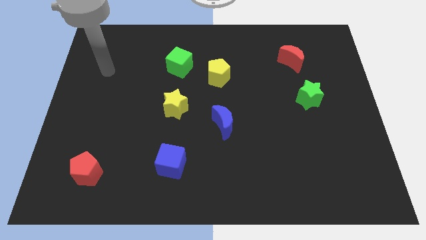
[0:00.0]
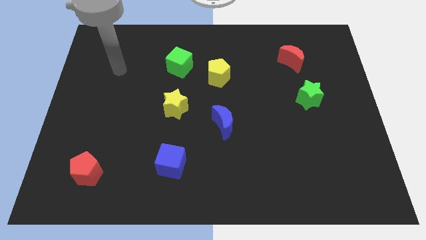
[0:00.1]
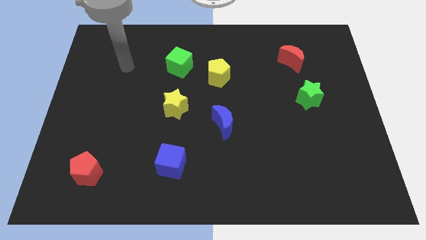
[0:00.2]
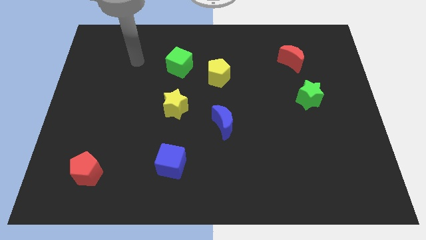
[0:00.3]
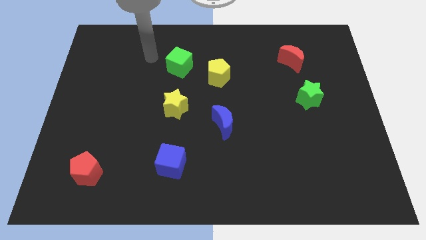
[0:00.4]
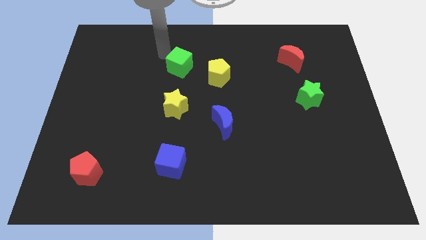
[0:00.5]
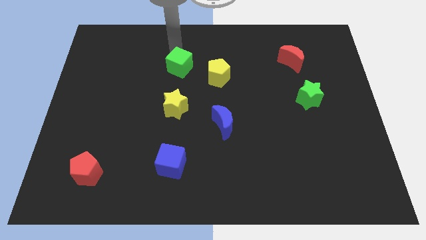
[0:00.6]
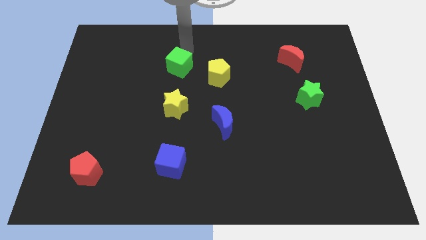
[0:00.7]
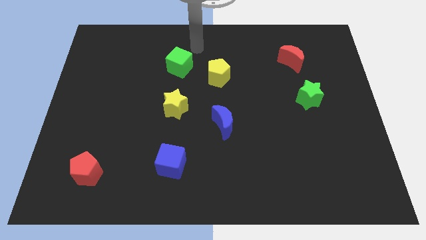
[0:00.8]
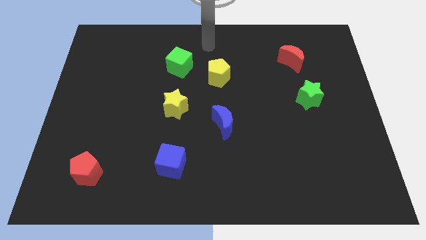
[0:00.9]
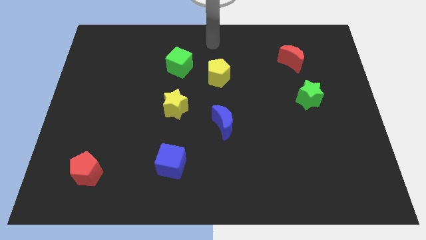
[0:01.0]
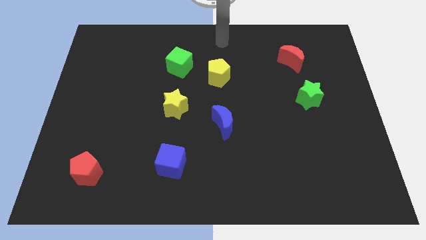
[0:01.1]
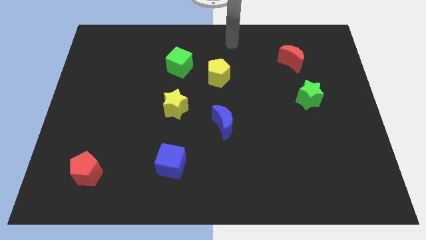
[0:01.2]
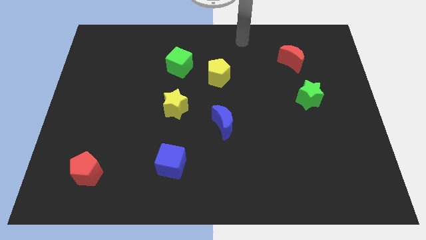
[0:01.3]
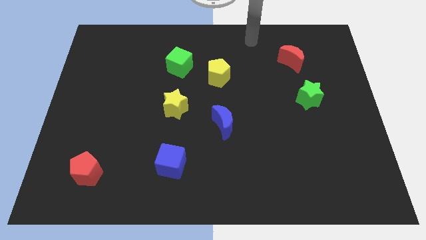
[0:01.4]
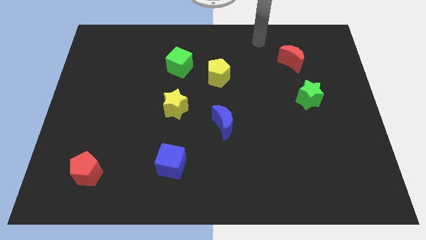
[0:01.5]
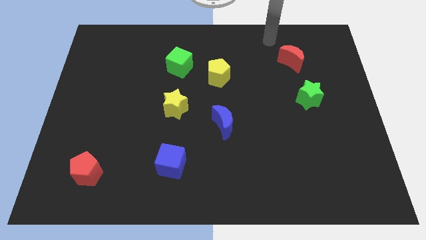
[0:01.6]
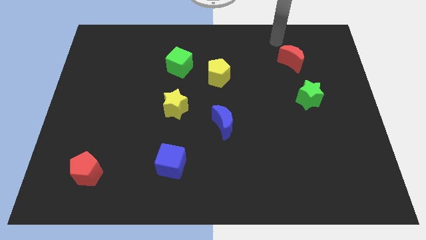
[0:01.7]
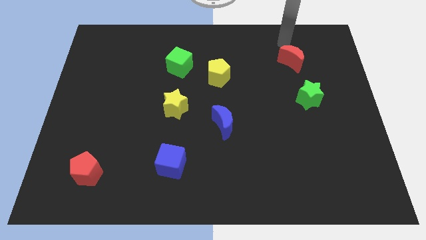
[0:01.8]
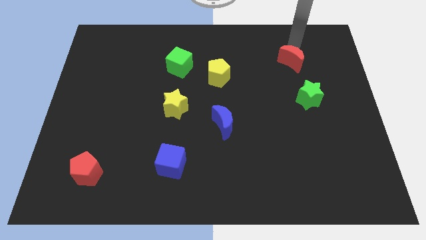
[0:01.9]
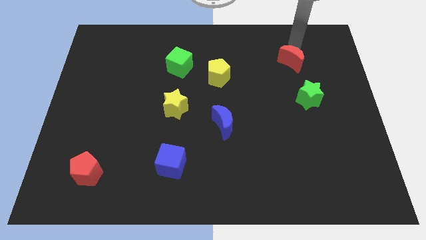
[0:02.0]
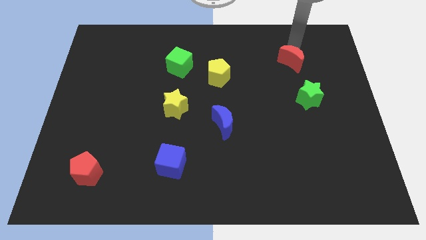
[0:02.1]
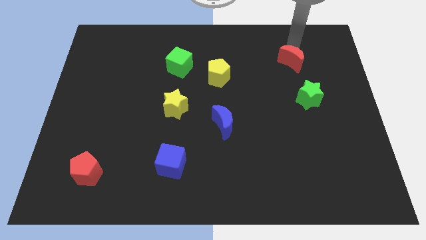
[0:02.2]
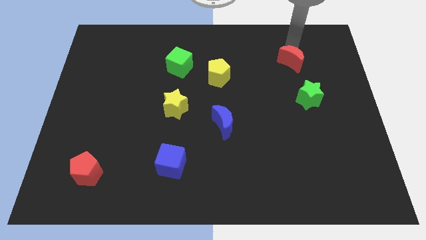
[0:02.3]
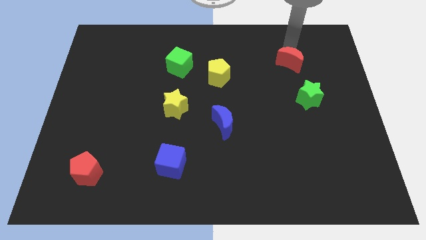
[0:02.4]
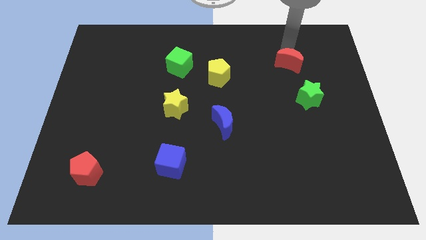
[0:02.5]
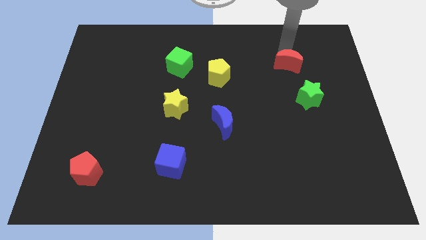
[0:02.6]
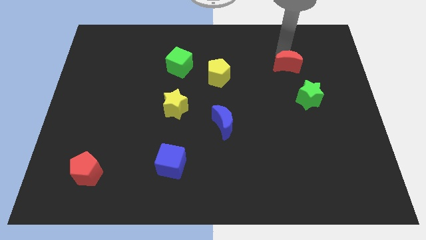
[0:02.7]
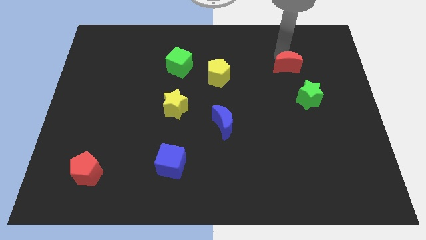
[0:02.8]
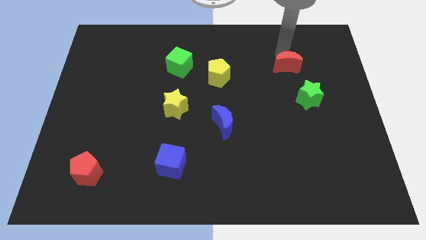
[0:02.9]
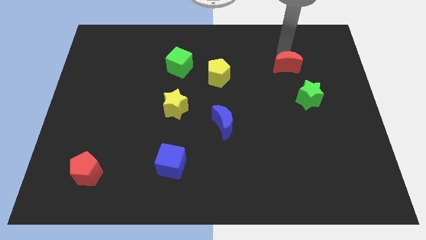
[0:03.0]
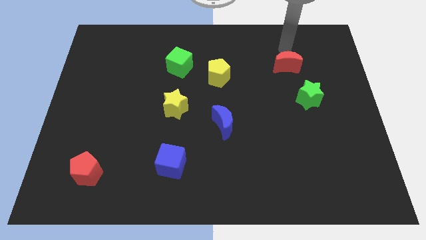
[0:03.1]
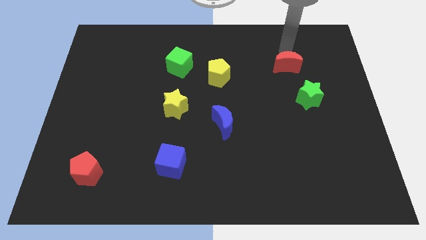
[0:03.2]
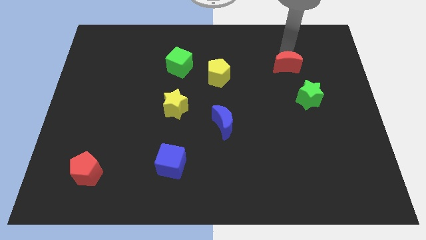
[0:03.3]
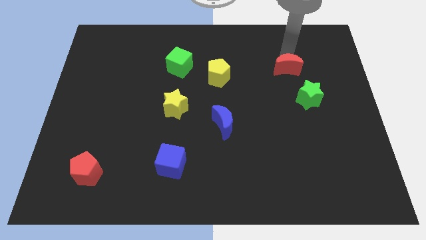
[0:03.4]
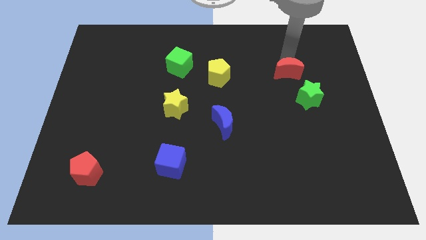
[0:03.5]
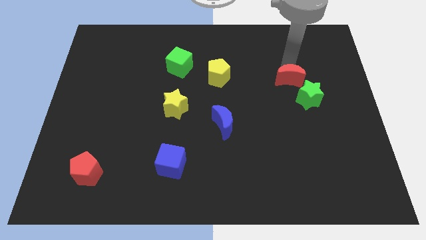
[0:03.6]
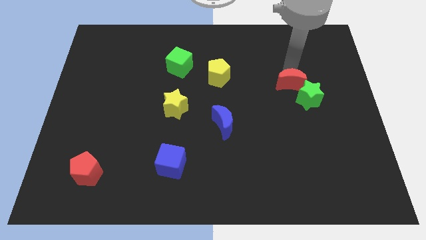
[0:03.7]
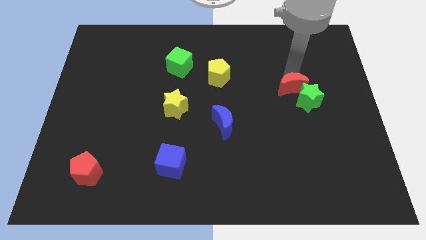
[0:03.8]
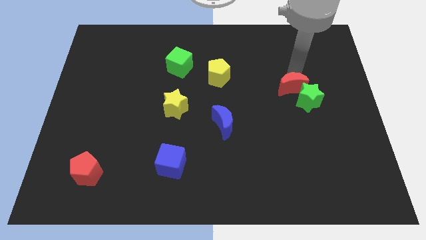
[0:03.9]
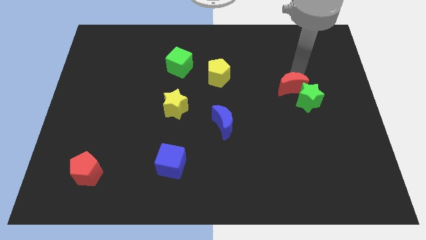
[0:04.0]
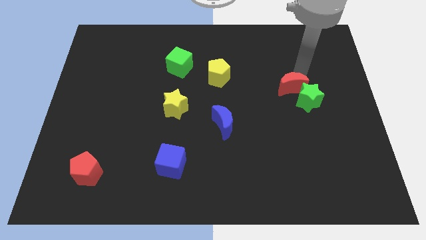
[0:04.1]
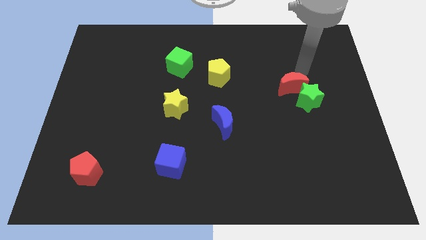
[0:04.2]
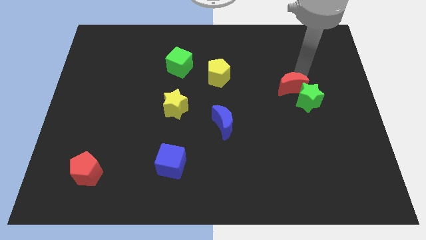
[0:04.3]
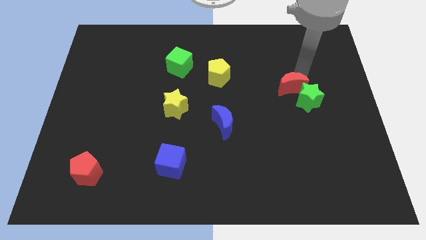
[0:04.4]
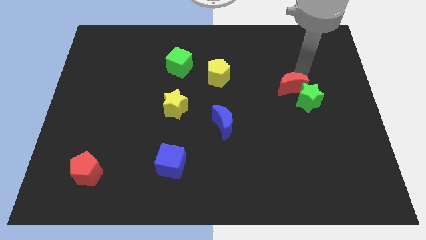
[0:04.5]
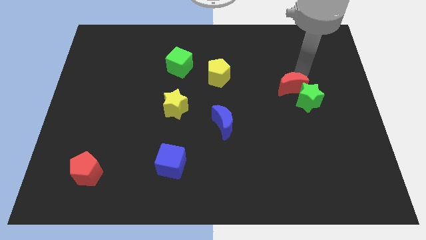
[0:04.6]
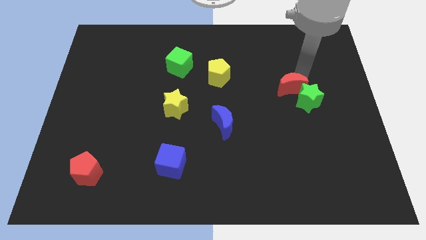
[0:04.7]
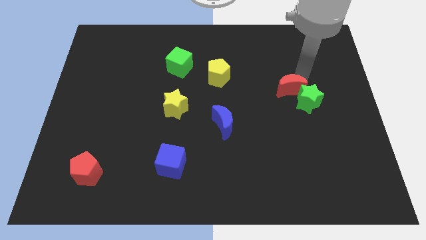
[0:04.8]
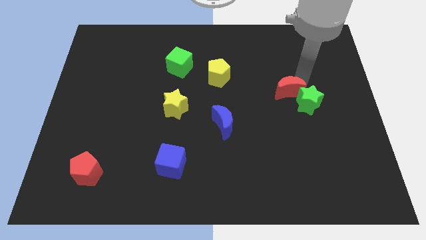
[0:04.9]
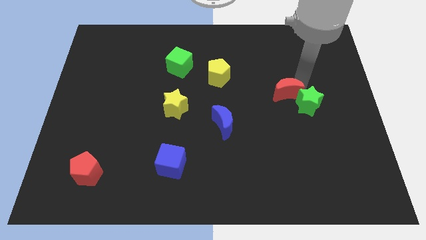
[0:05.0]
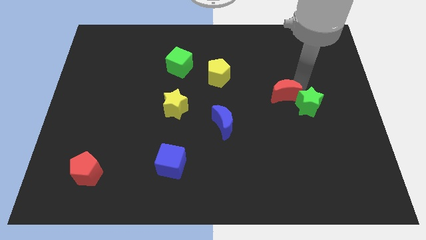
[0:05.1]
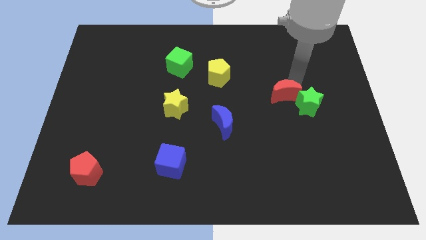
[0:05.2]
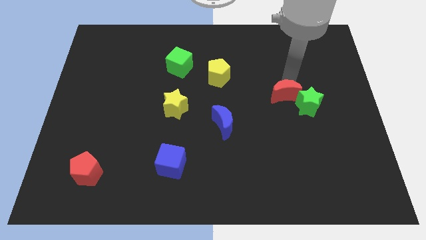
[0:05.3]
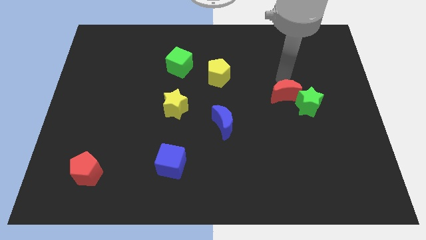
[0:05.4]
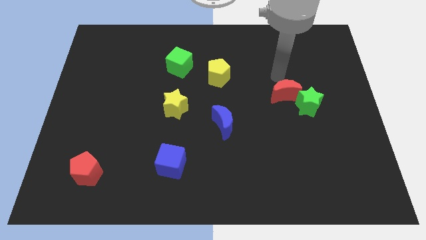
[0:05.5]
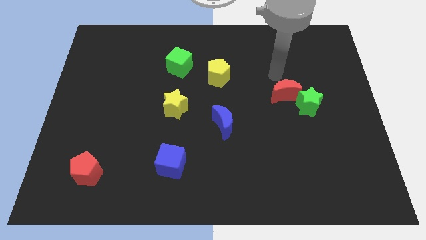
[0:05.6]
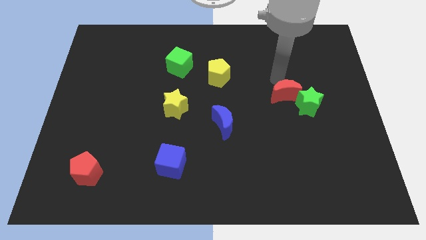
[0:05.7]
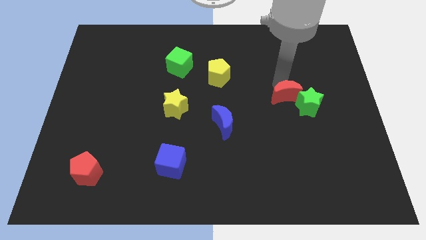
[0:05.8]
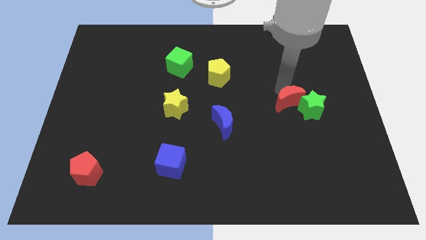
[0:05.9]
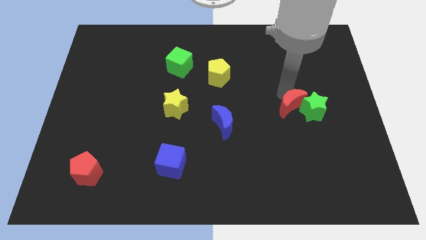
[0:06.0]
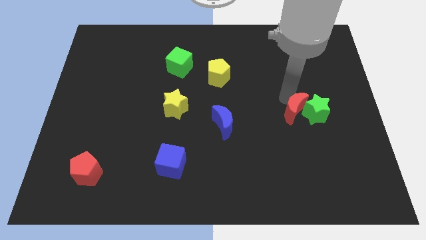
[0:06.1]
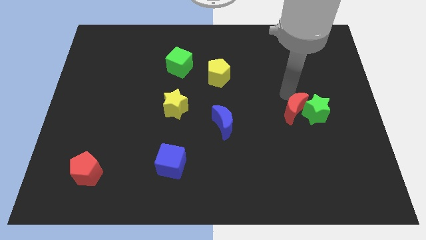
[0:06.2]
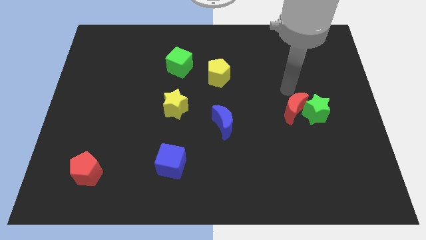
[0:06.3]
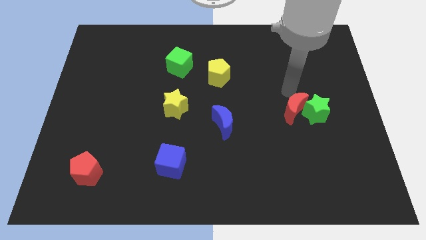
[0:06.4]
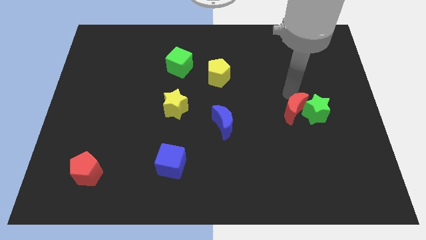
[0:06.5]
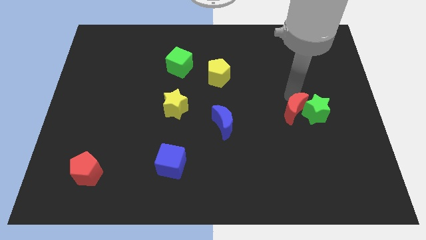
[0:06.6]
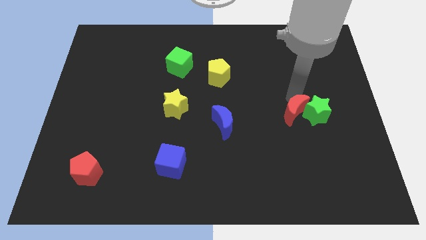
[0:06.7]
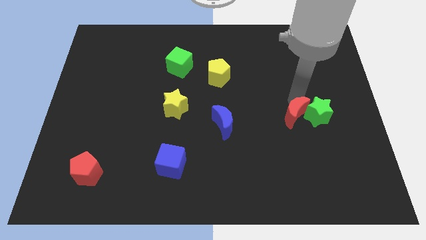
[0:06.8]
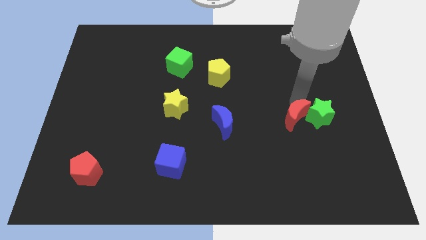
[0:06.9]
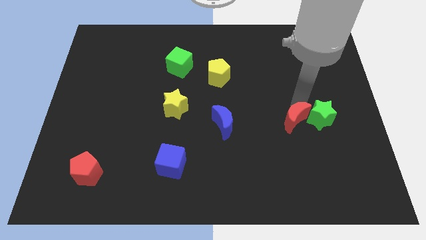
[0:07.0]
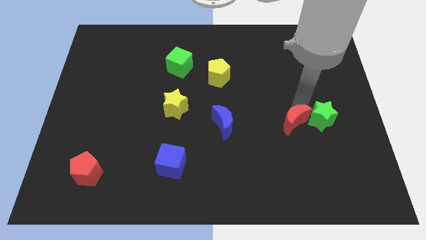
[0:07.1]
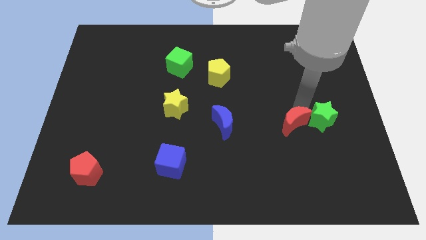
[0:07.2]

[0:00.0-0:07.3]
move the red moon down

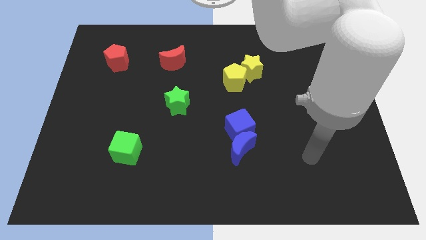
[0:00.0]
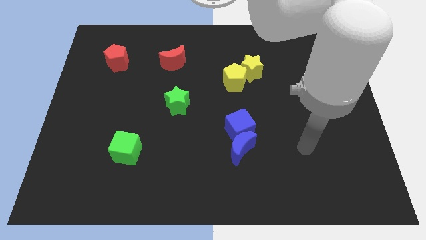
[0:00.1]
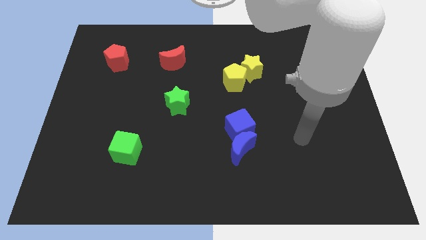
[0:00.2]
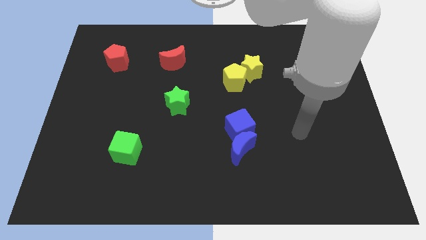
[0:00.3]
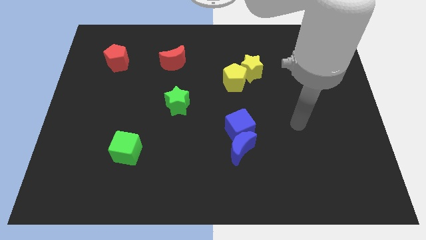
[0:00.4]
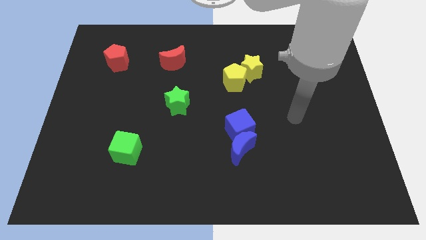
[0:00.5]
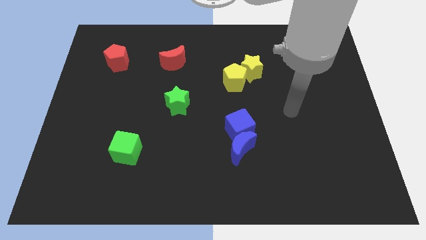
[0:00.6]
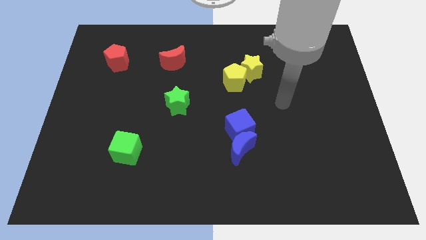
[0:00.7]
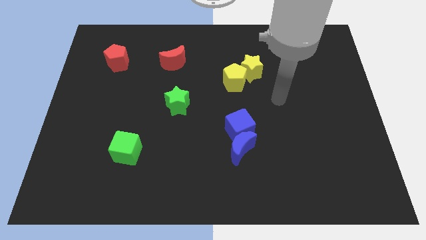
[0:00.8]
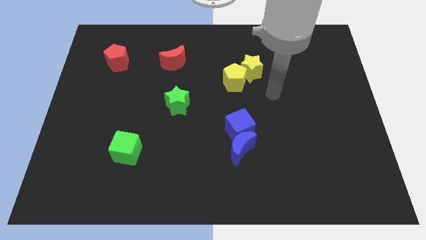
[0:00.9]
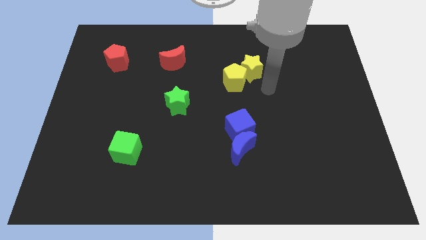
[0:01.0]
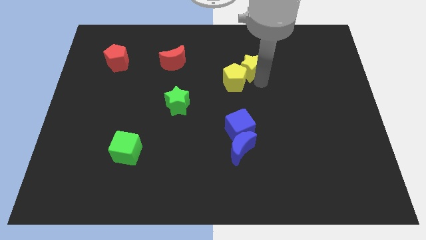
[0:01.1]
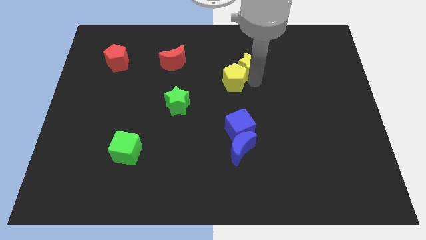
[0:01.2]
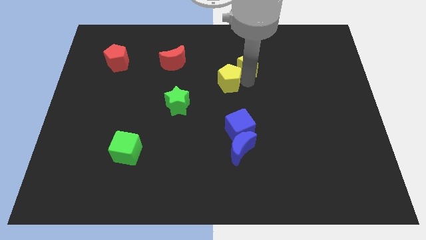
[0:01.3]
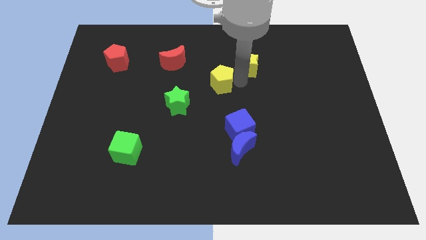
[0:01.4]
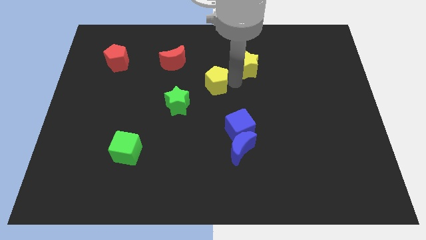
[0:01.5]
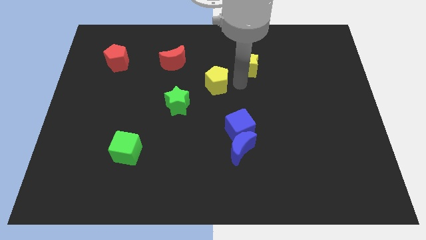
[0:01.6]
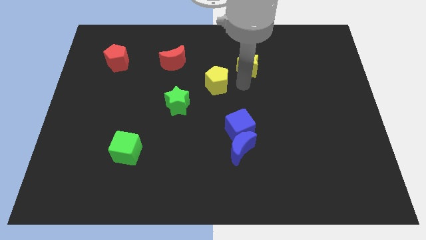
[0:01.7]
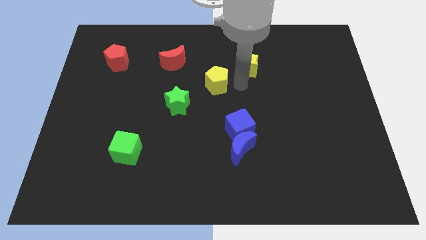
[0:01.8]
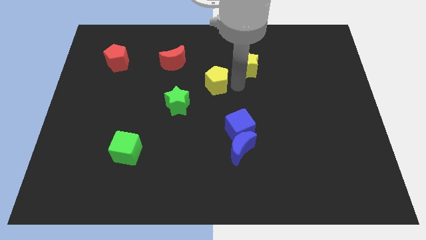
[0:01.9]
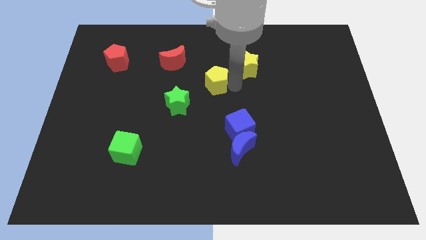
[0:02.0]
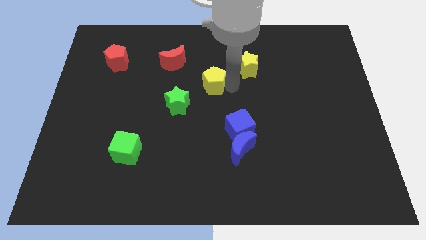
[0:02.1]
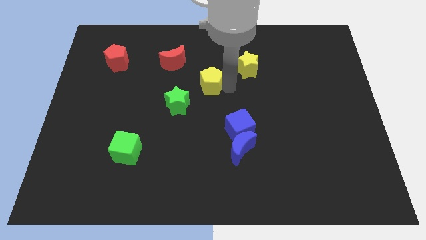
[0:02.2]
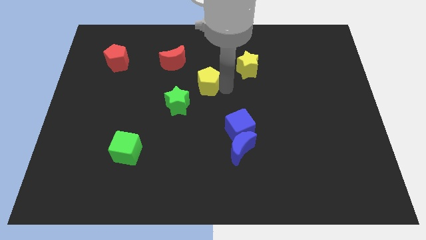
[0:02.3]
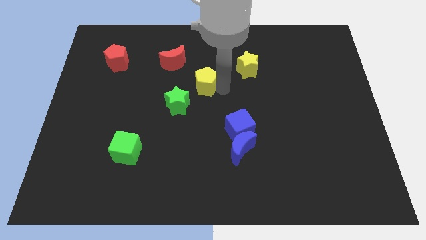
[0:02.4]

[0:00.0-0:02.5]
slightly push the yellow pentagon to the left
